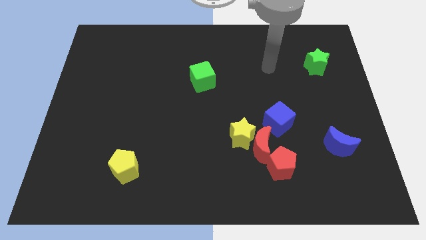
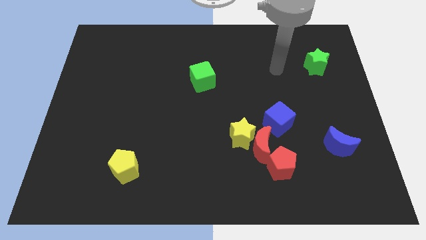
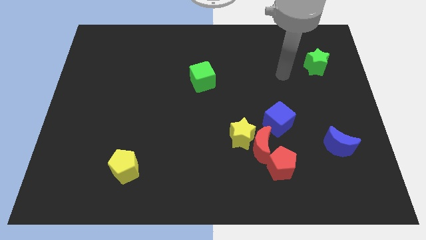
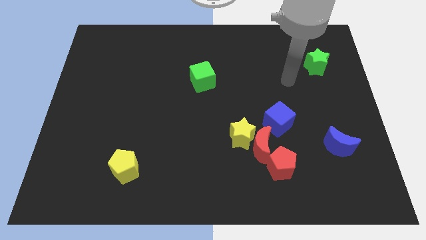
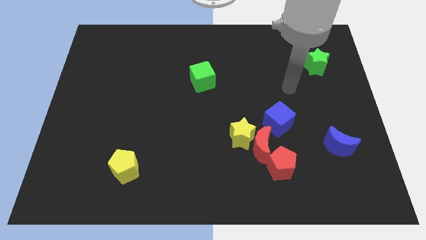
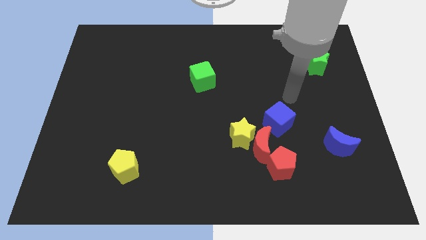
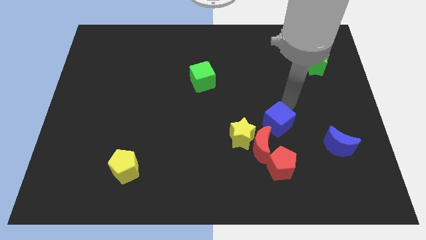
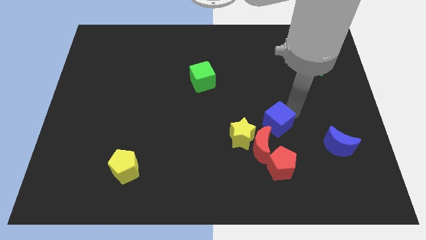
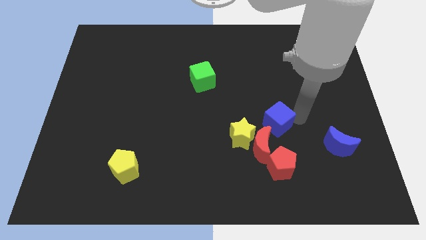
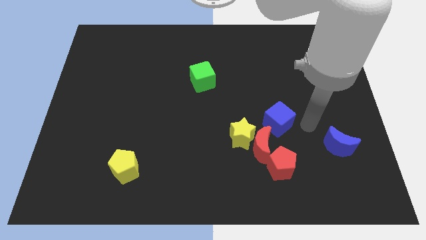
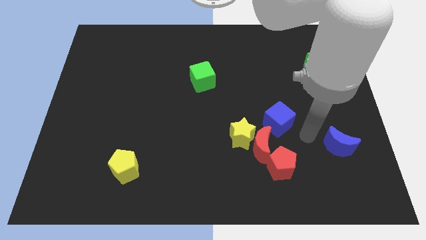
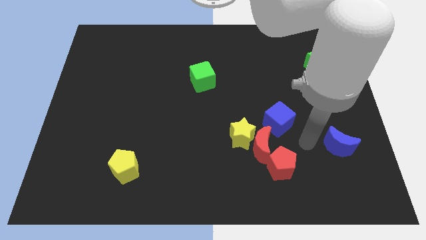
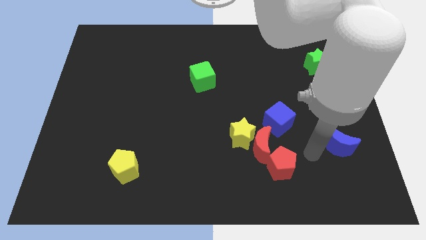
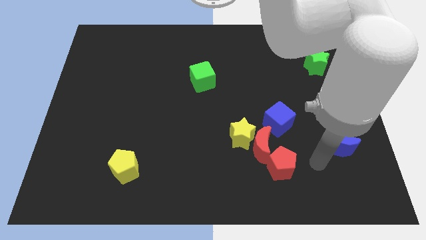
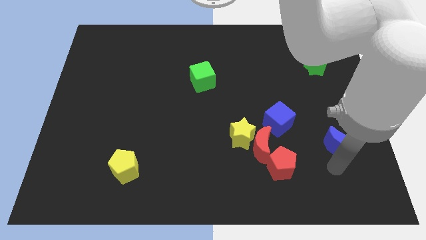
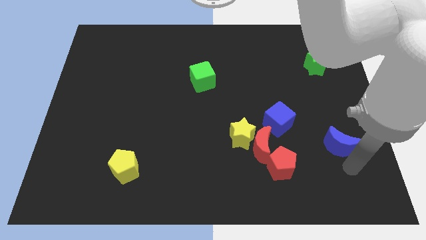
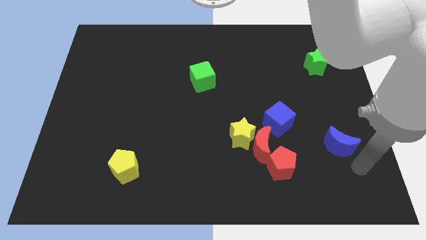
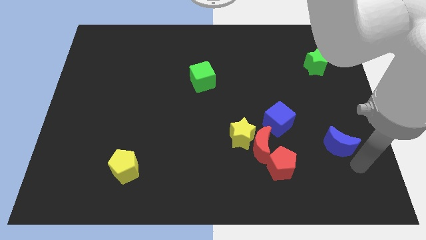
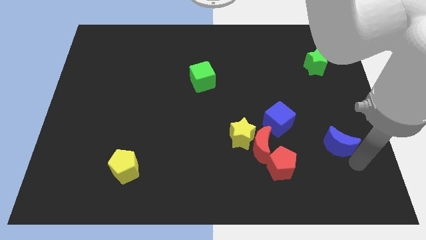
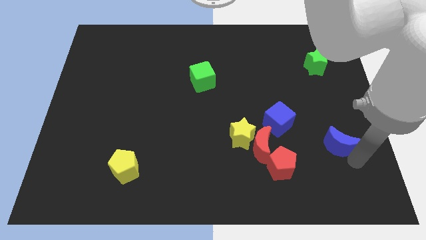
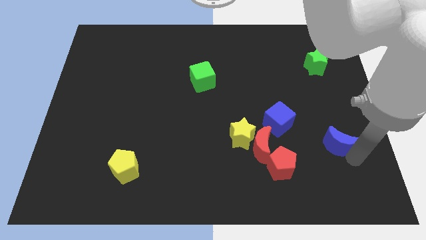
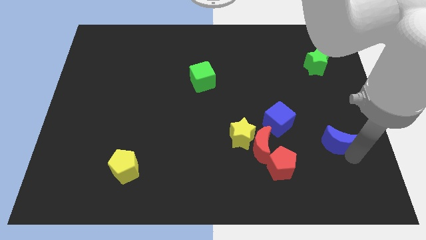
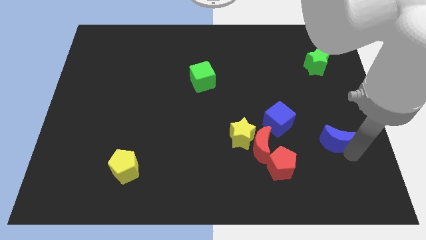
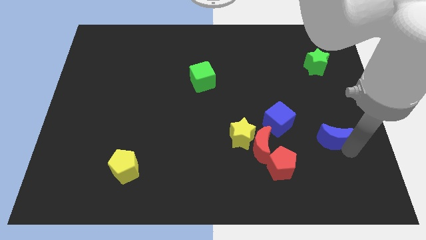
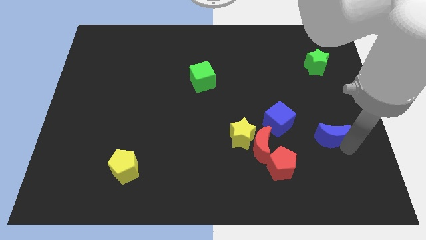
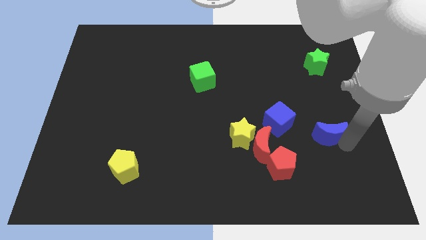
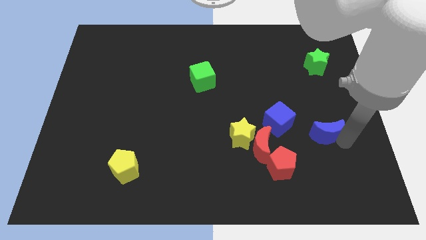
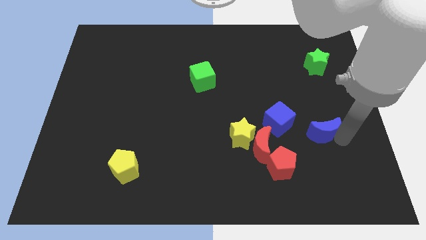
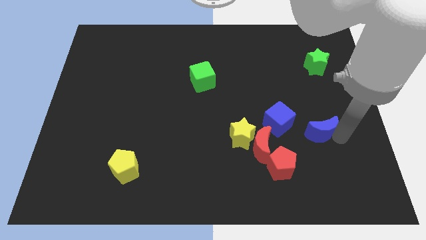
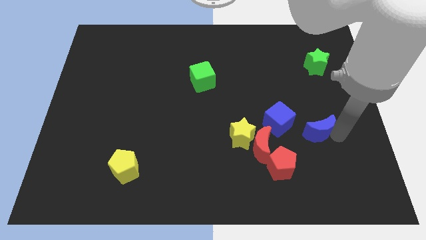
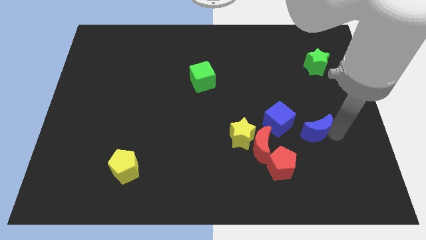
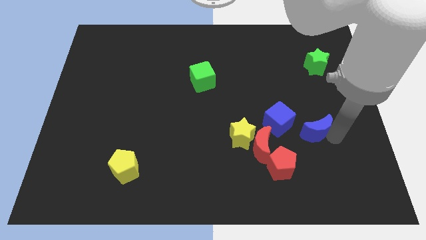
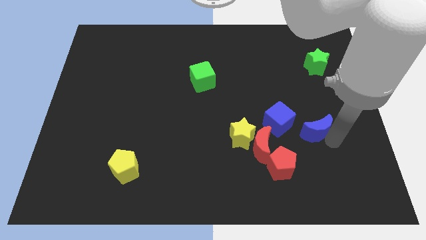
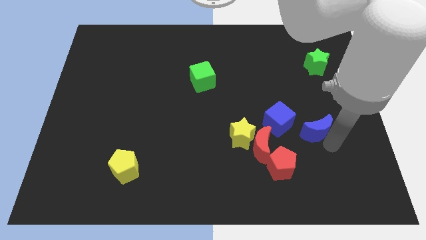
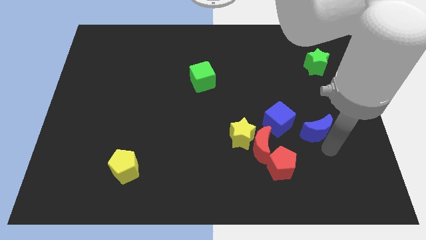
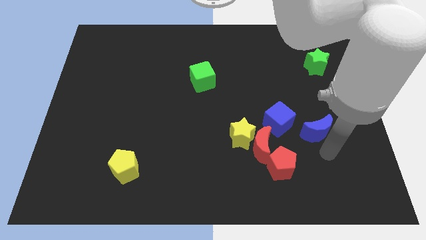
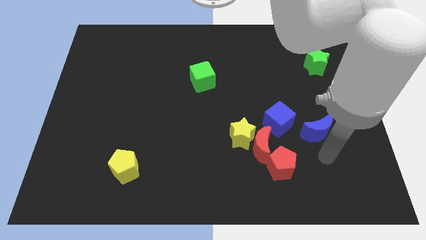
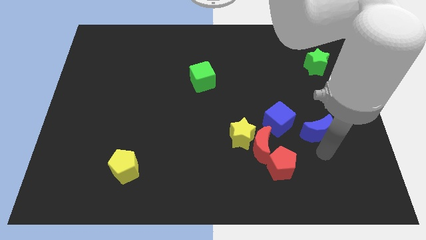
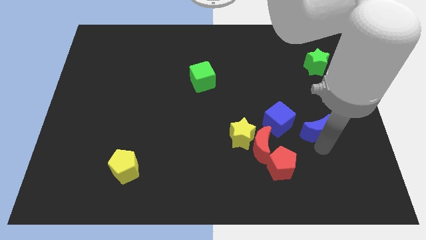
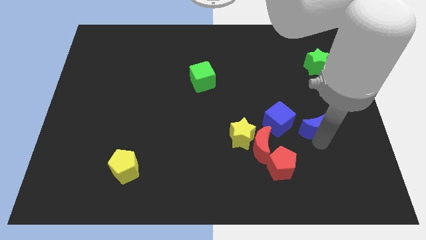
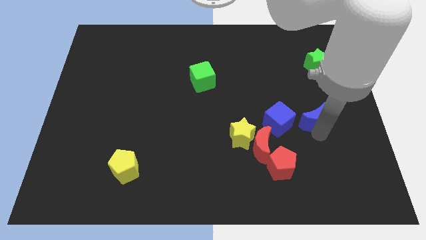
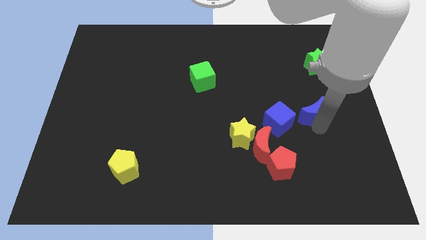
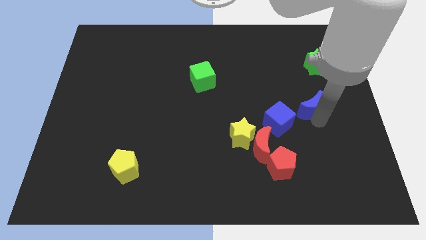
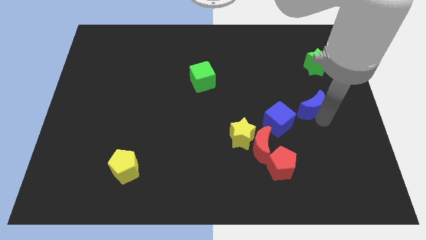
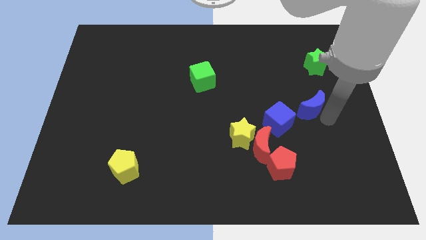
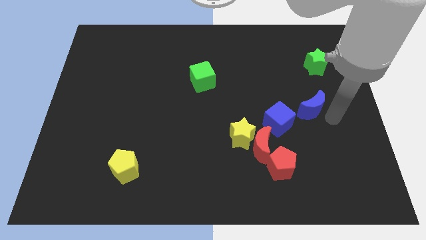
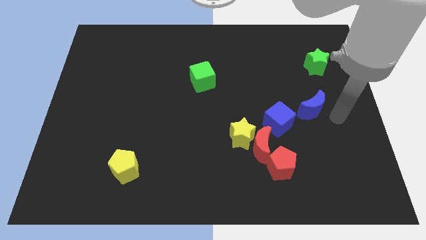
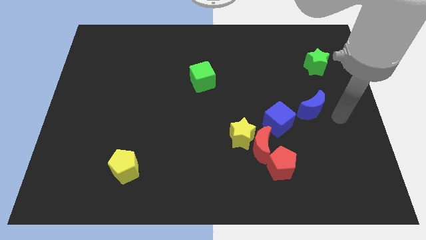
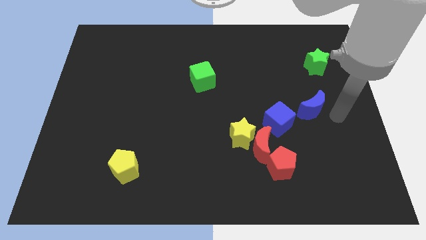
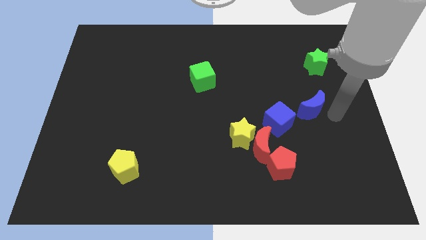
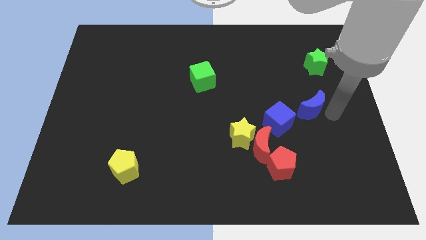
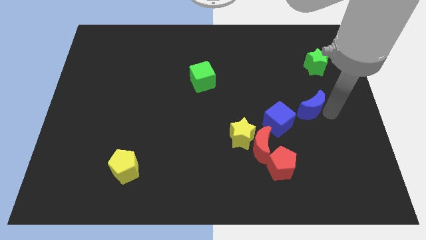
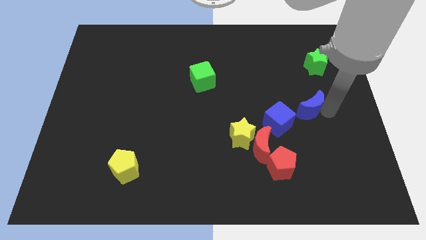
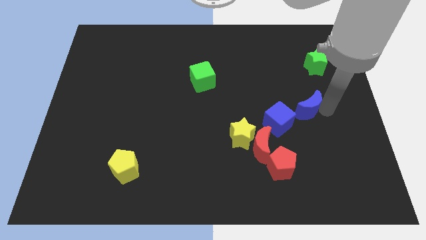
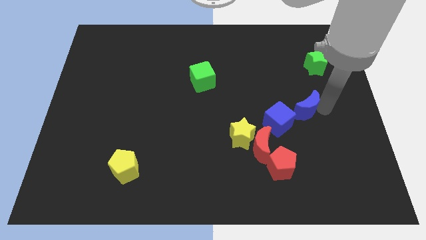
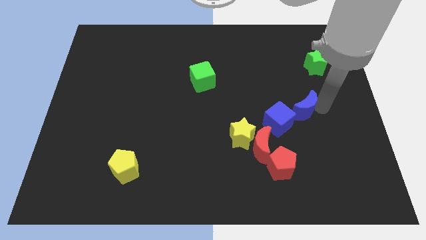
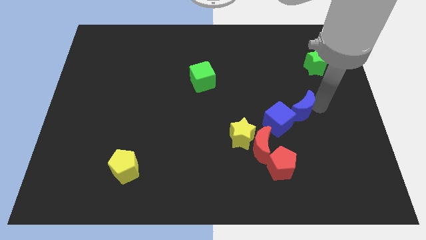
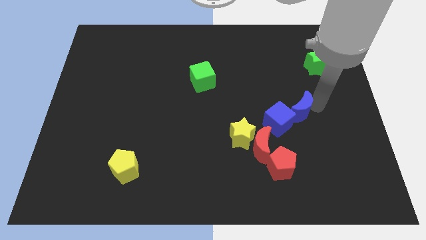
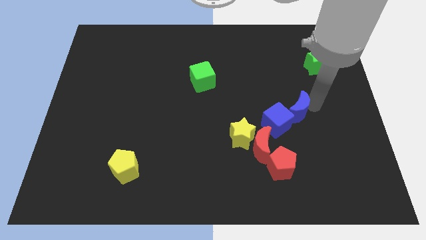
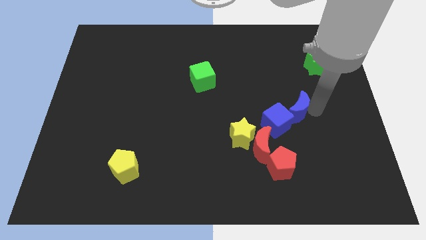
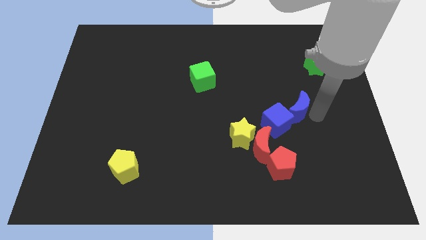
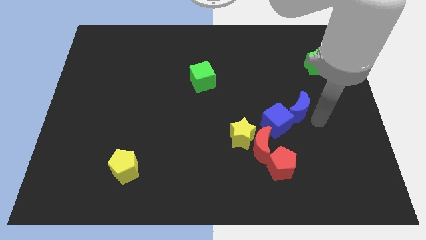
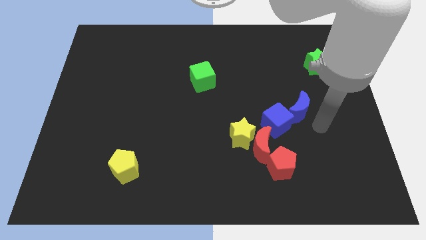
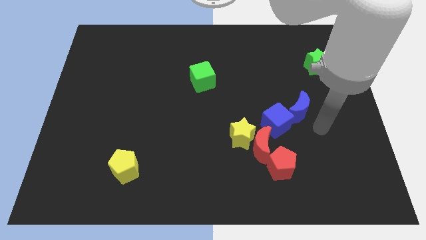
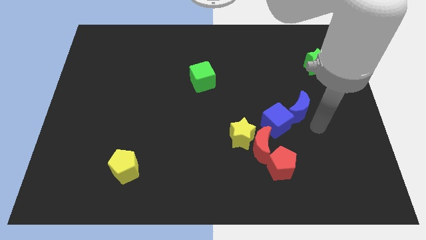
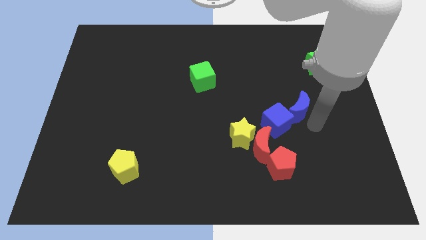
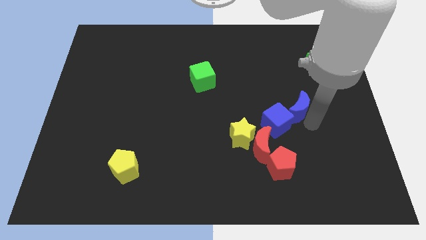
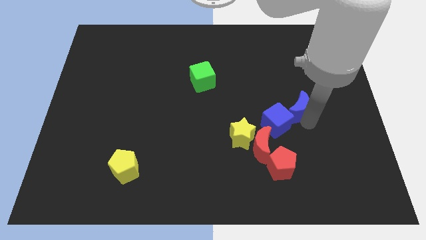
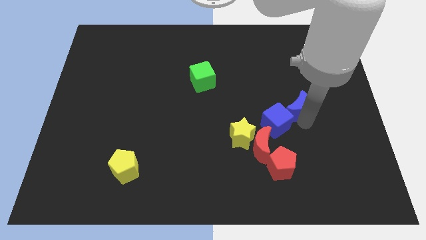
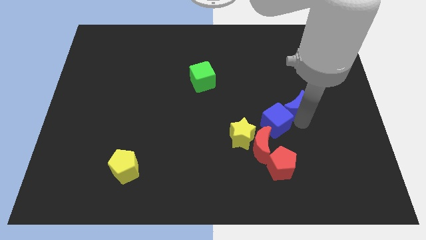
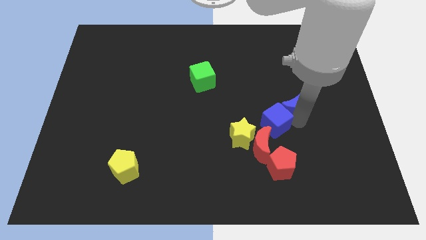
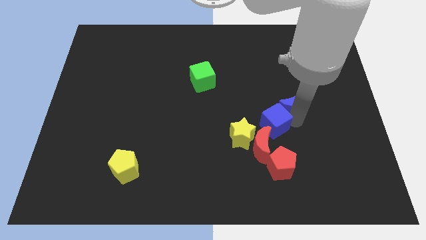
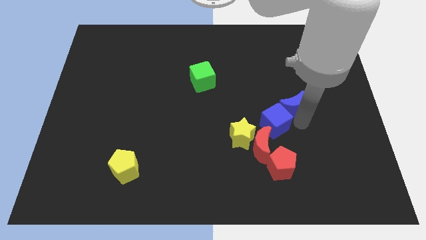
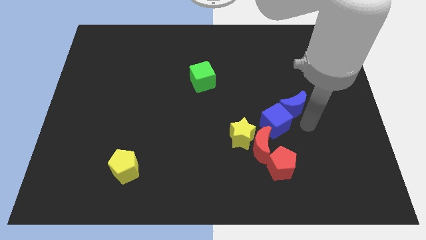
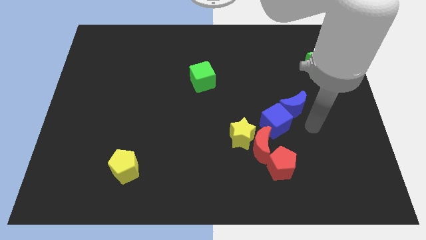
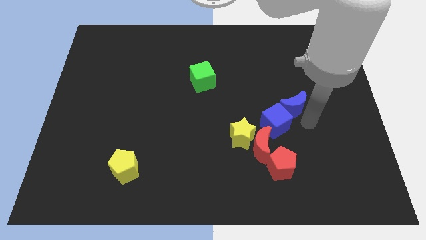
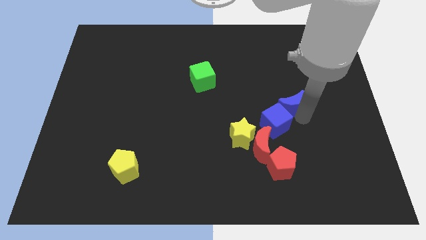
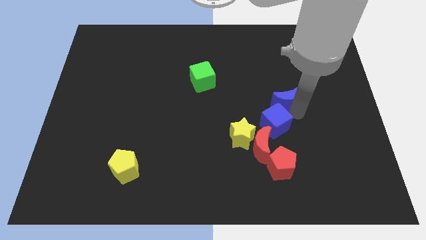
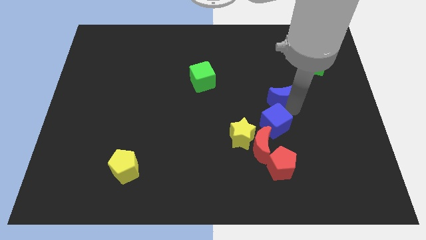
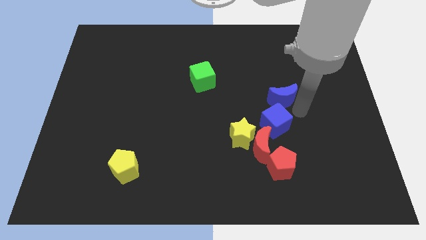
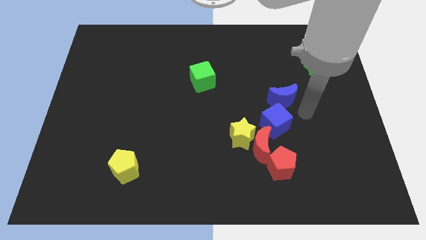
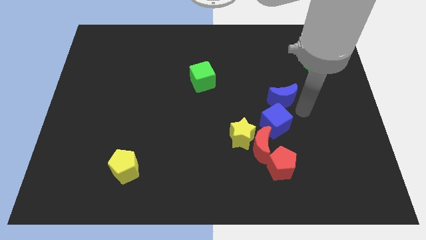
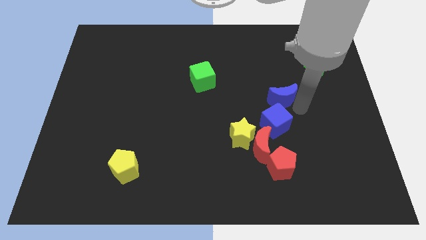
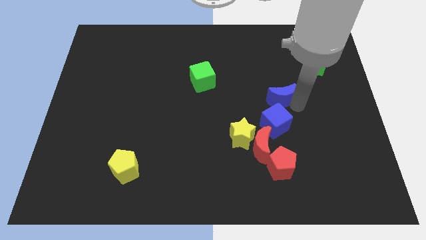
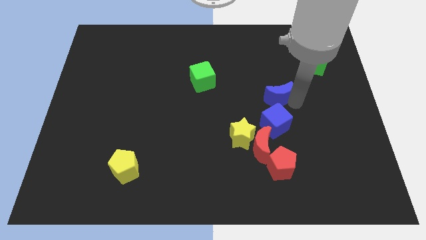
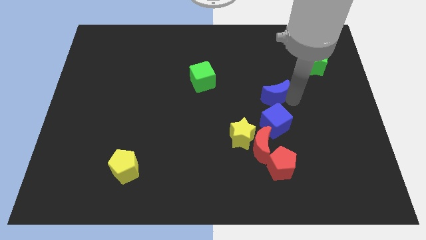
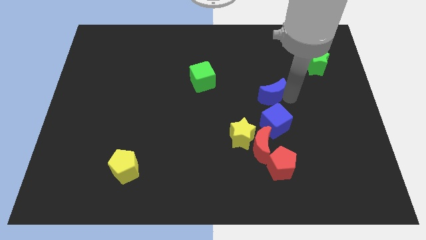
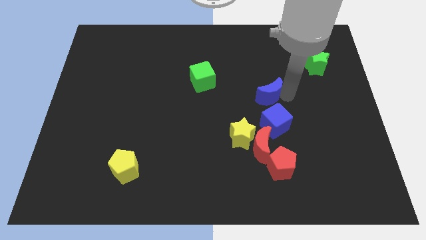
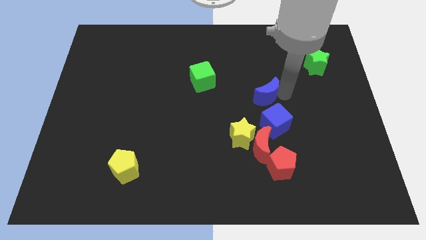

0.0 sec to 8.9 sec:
push the blue moon upwards and then to the left
